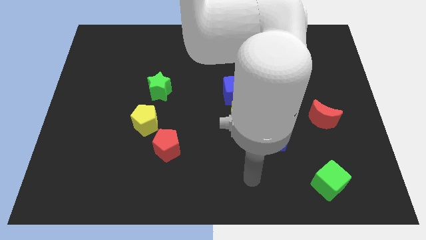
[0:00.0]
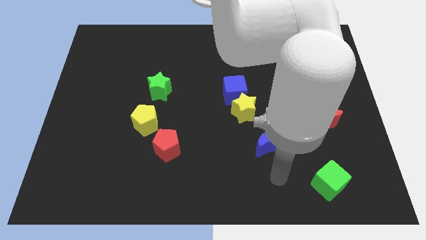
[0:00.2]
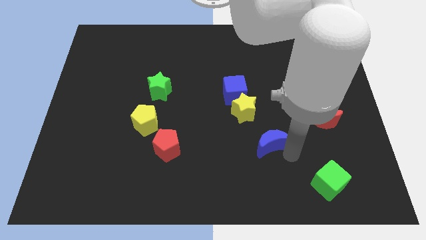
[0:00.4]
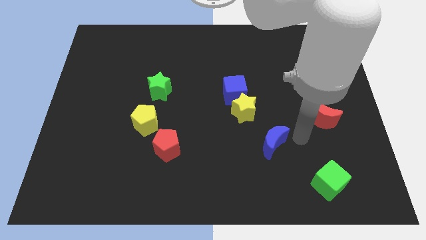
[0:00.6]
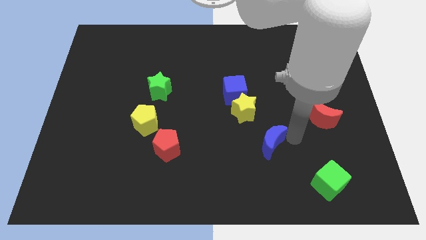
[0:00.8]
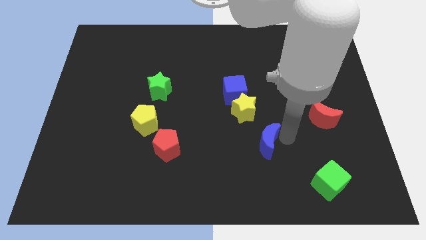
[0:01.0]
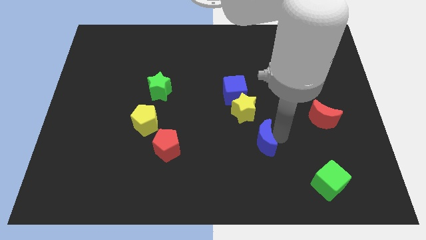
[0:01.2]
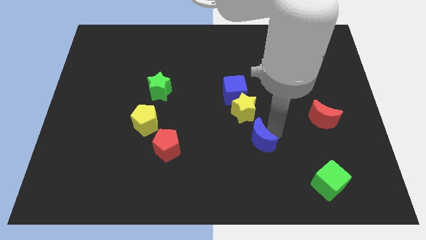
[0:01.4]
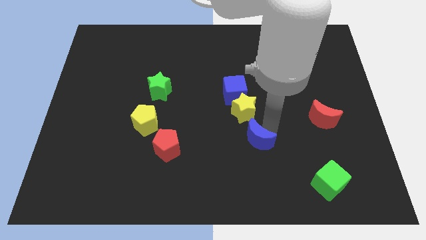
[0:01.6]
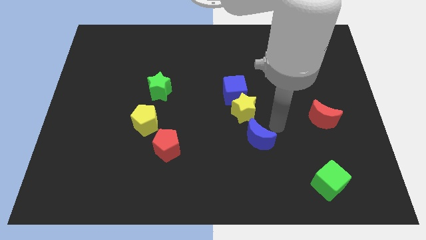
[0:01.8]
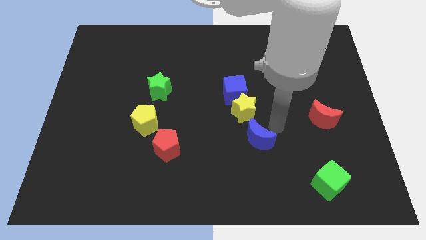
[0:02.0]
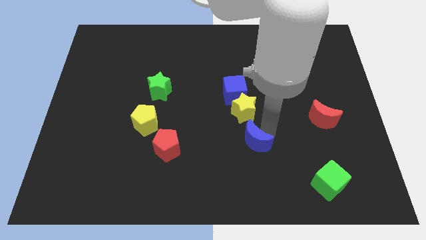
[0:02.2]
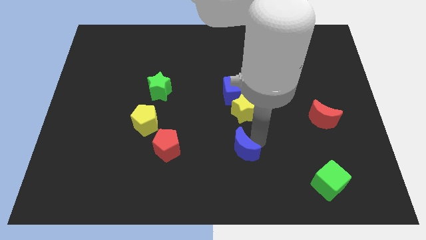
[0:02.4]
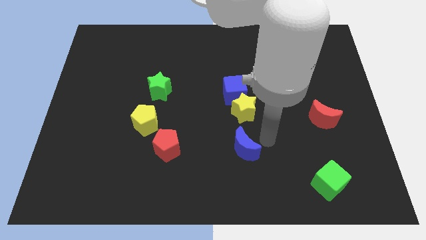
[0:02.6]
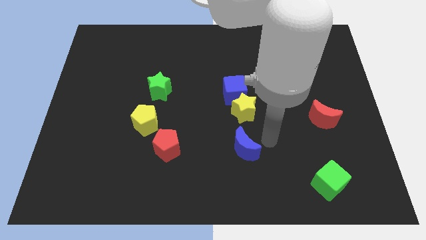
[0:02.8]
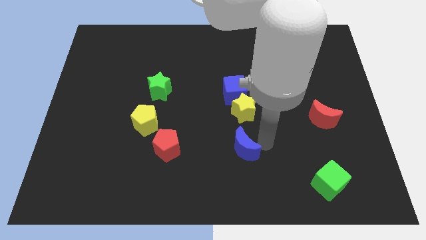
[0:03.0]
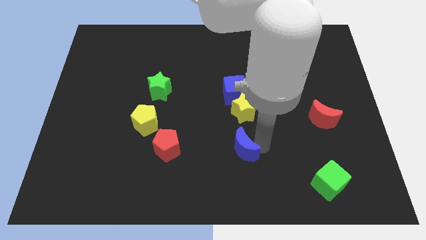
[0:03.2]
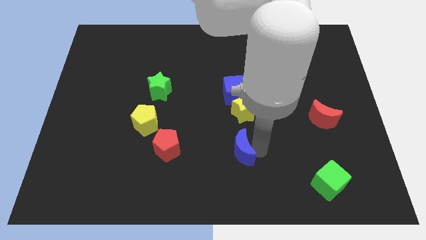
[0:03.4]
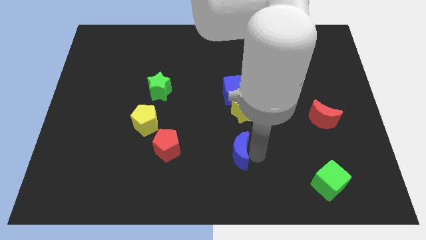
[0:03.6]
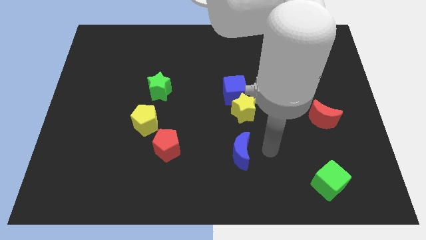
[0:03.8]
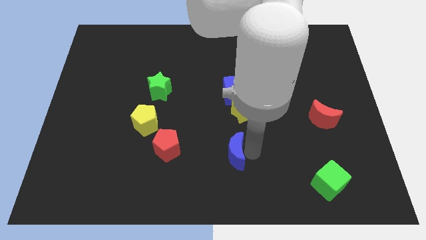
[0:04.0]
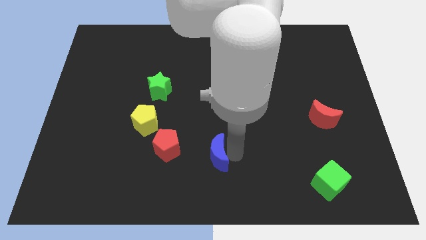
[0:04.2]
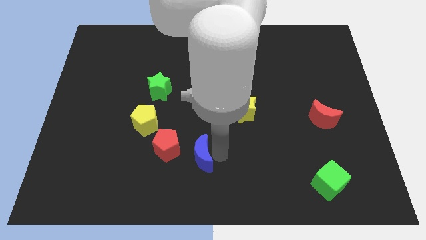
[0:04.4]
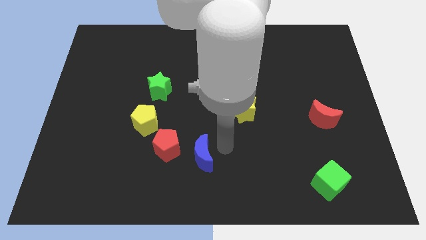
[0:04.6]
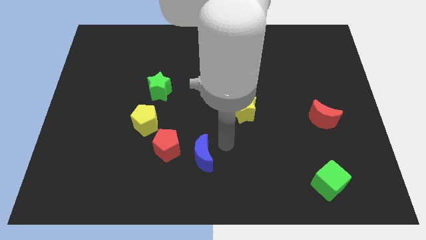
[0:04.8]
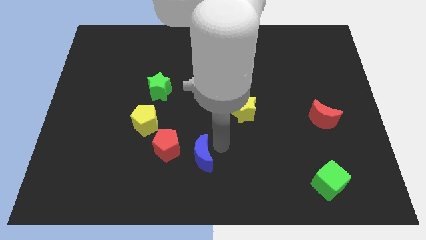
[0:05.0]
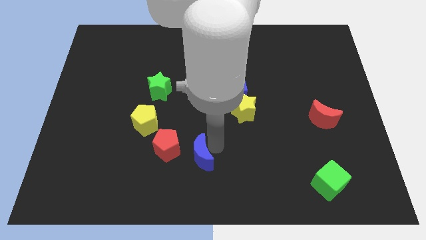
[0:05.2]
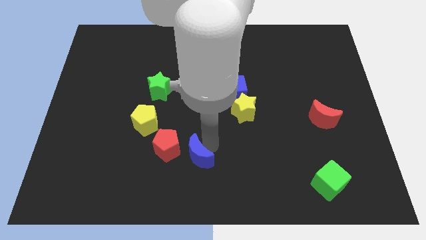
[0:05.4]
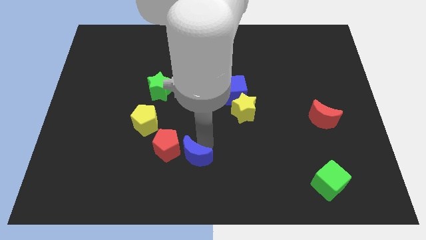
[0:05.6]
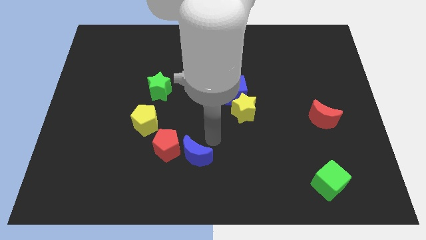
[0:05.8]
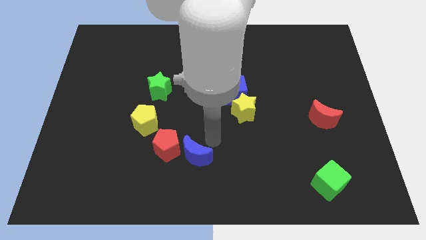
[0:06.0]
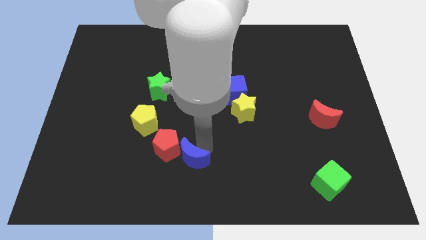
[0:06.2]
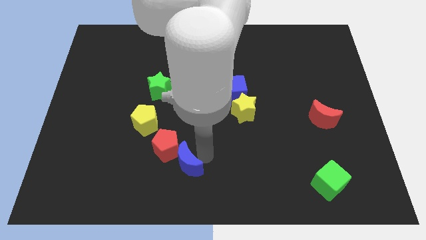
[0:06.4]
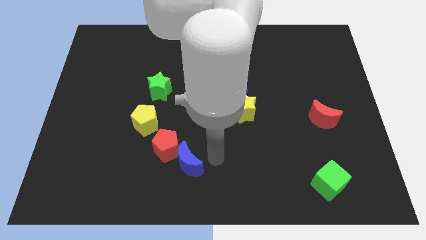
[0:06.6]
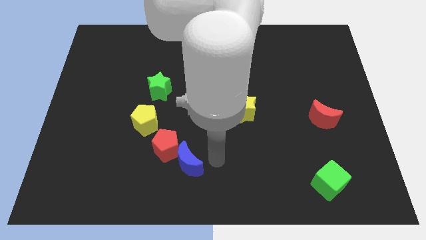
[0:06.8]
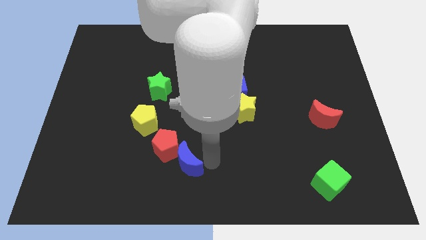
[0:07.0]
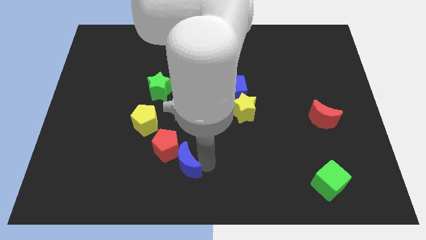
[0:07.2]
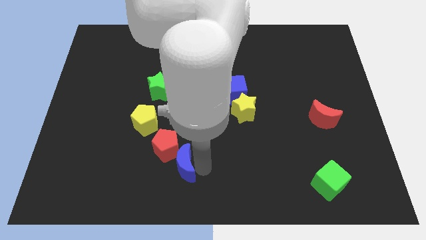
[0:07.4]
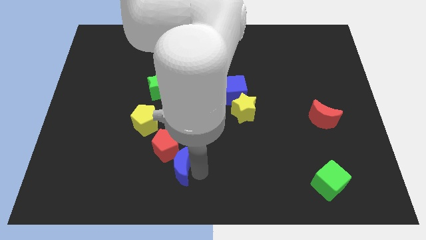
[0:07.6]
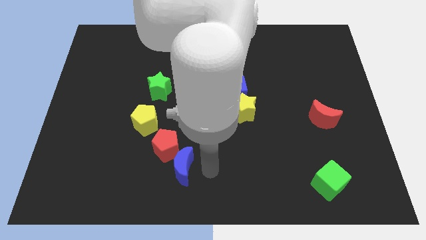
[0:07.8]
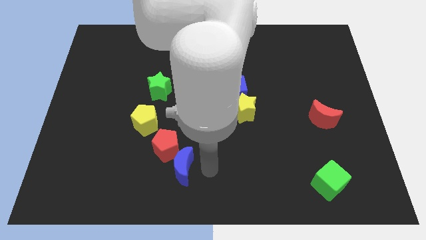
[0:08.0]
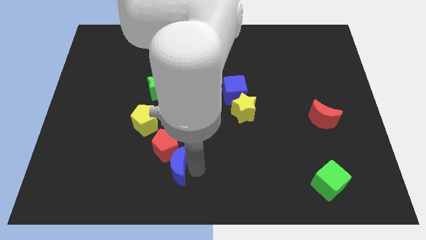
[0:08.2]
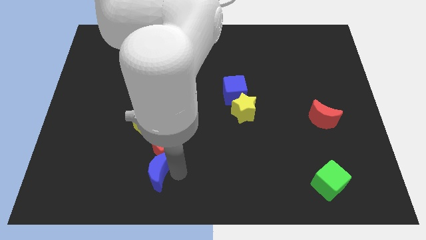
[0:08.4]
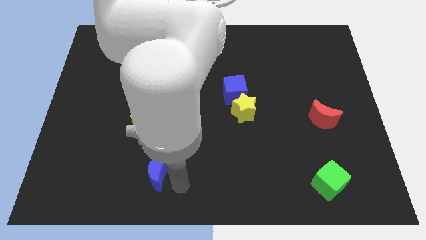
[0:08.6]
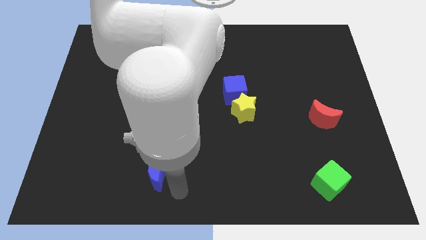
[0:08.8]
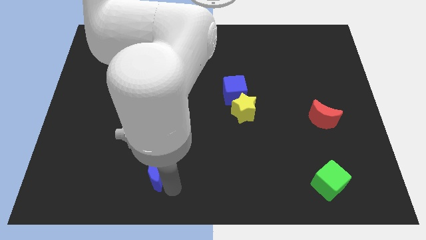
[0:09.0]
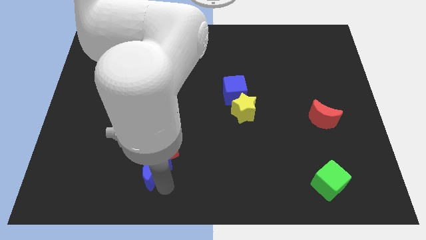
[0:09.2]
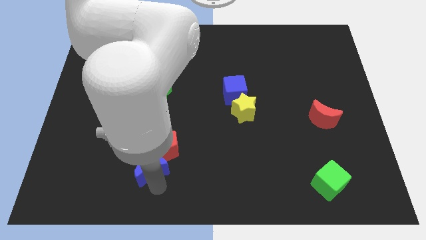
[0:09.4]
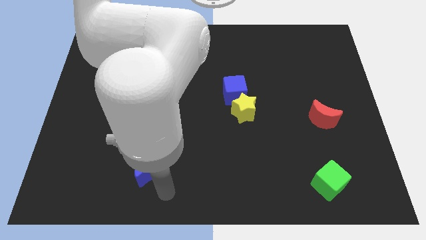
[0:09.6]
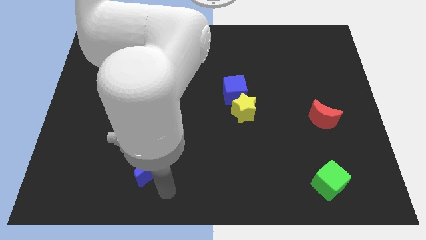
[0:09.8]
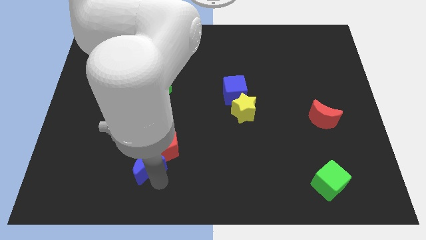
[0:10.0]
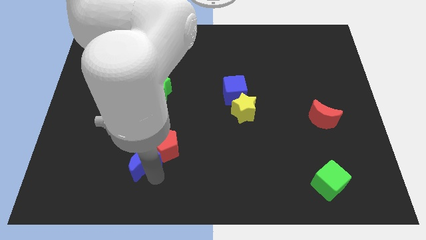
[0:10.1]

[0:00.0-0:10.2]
move the blue moon left of the red pentagon

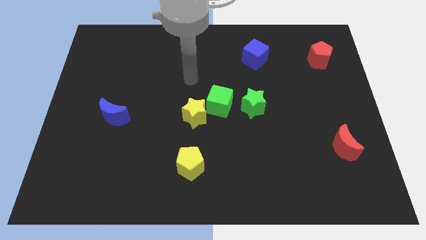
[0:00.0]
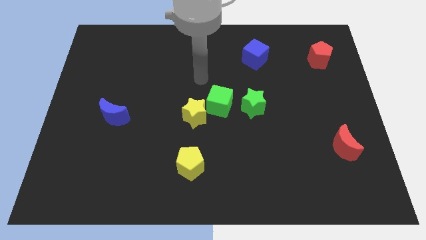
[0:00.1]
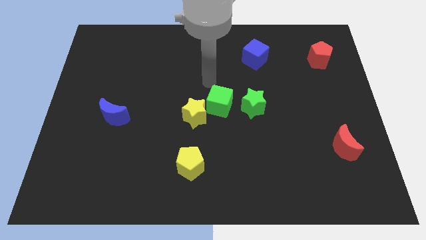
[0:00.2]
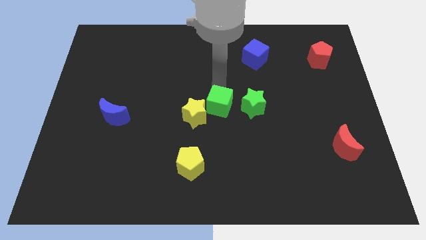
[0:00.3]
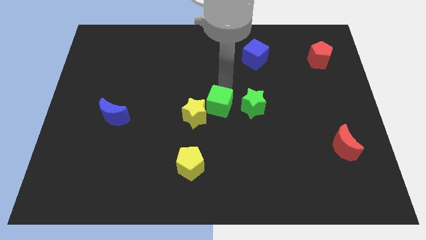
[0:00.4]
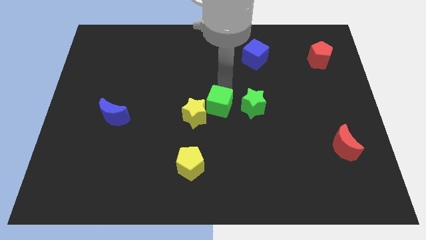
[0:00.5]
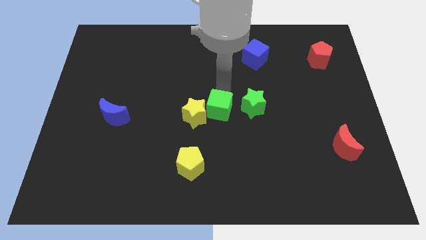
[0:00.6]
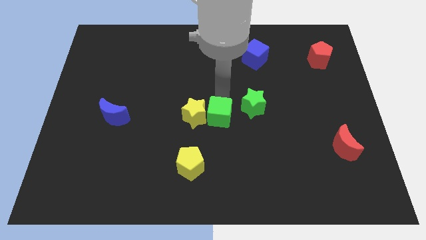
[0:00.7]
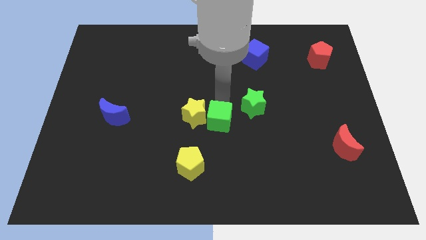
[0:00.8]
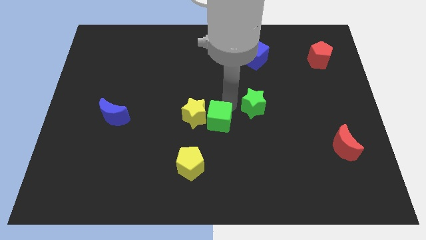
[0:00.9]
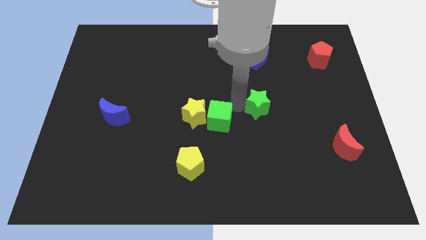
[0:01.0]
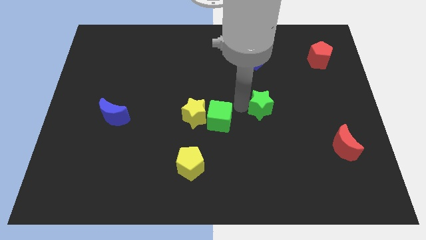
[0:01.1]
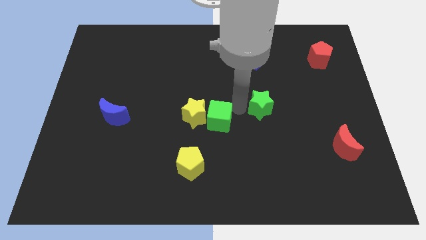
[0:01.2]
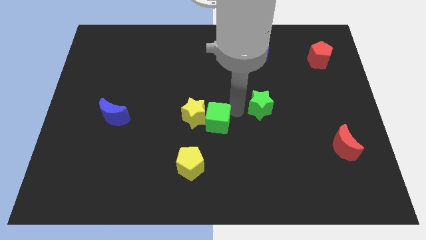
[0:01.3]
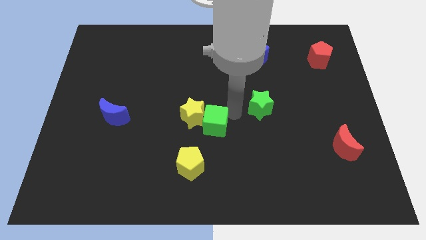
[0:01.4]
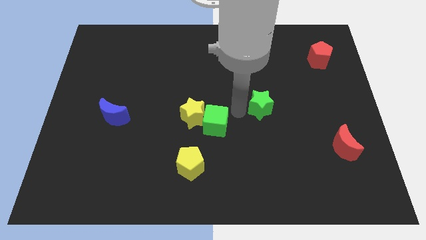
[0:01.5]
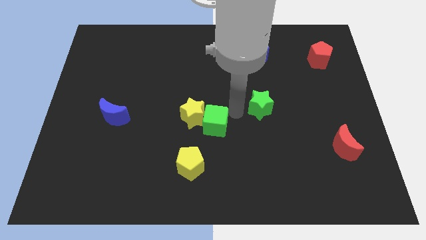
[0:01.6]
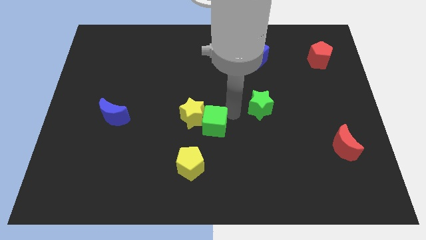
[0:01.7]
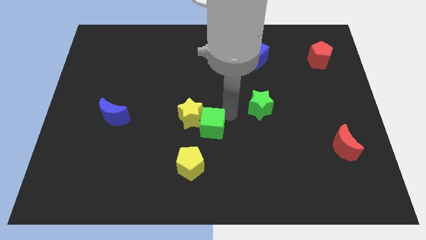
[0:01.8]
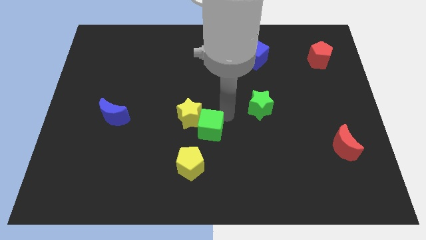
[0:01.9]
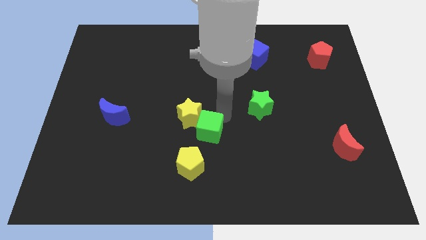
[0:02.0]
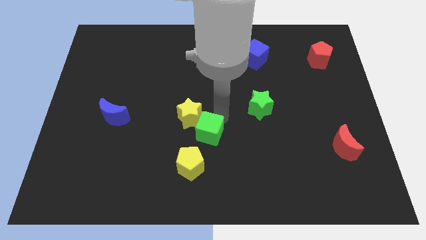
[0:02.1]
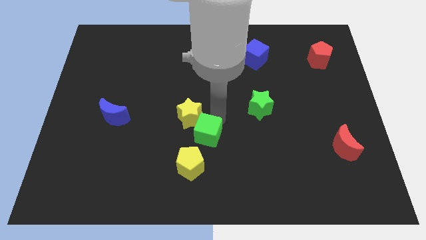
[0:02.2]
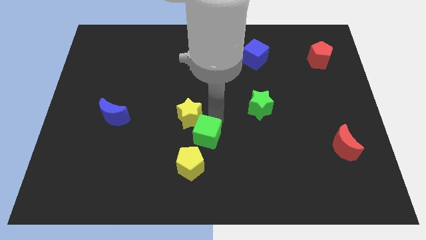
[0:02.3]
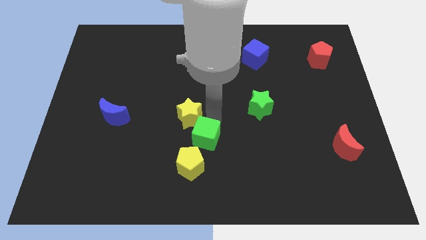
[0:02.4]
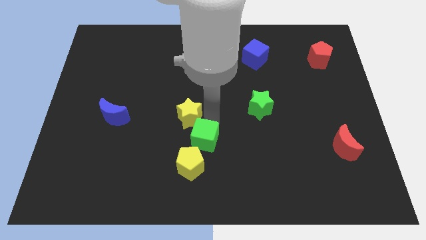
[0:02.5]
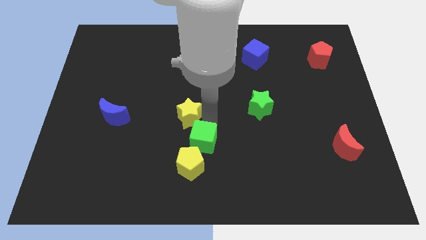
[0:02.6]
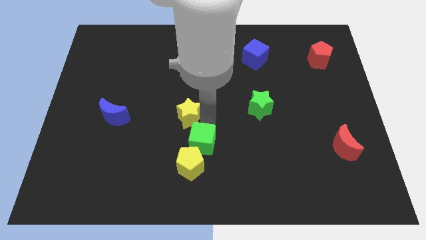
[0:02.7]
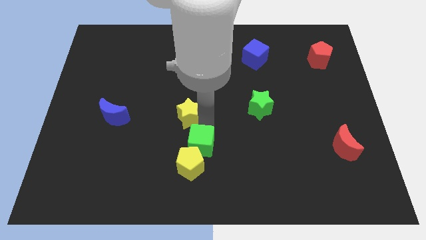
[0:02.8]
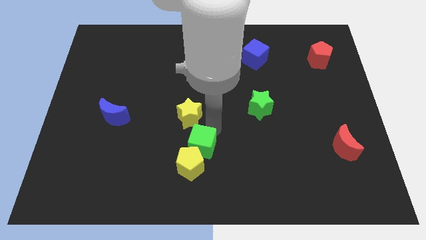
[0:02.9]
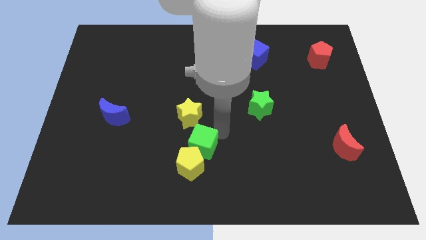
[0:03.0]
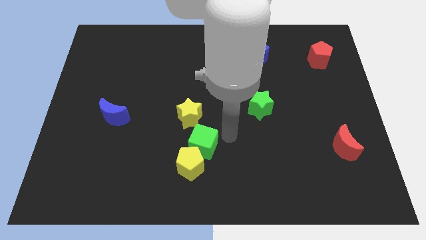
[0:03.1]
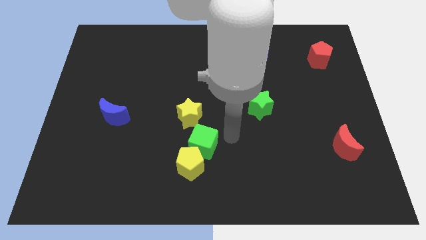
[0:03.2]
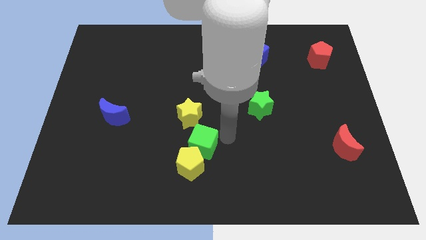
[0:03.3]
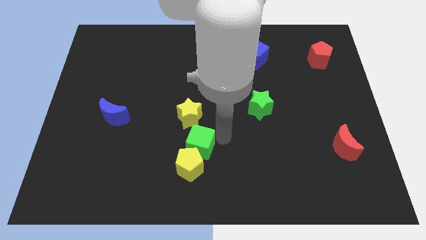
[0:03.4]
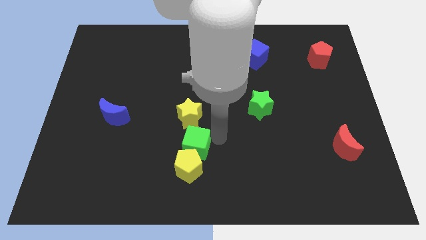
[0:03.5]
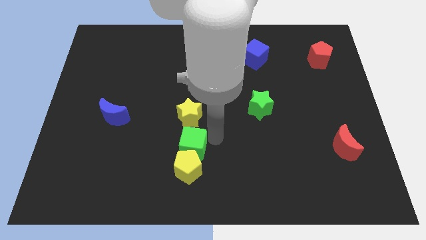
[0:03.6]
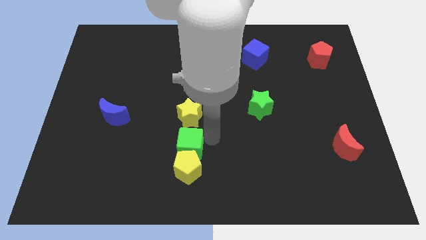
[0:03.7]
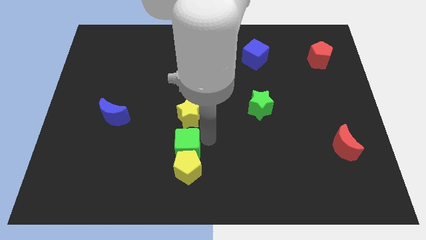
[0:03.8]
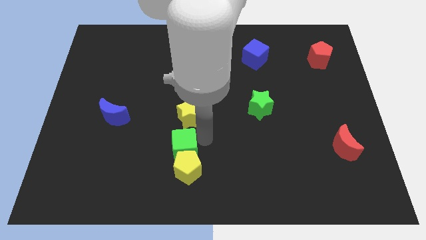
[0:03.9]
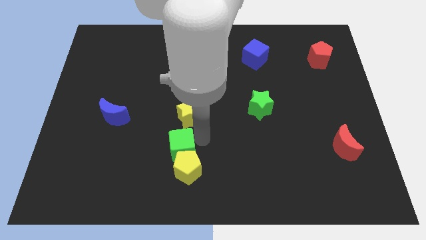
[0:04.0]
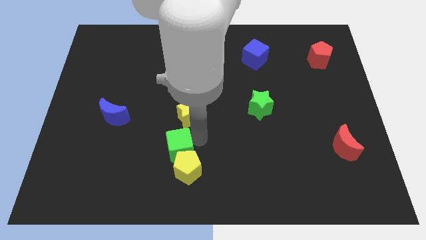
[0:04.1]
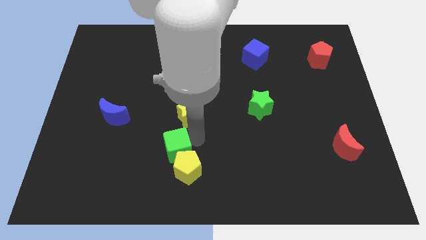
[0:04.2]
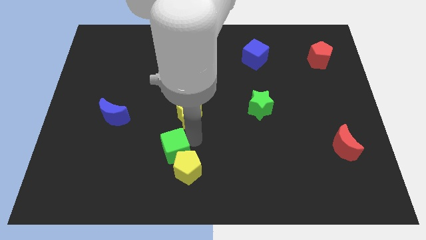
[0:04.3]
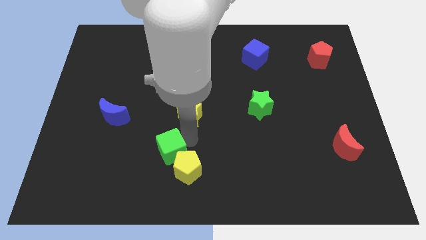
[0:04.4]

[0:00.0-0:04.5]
put the green cube to the left side of the yellow pentagon
